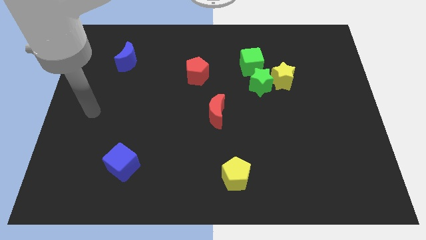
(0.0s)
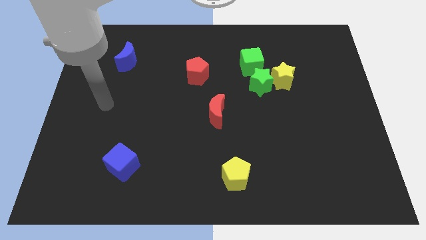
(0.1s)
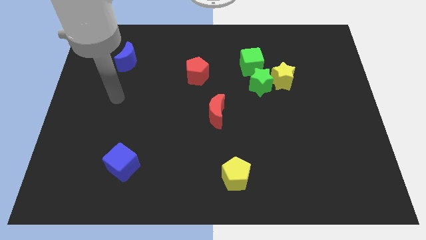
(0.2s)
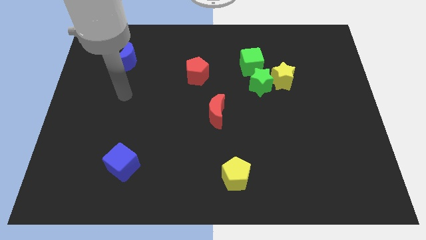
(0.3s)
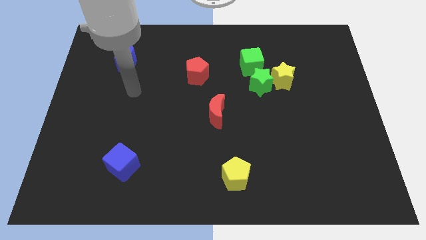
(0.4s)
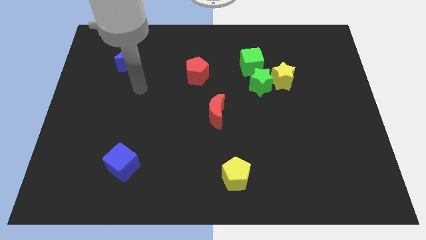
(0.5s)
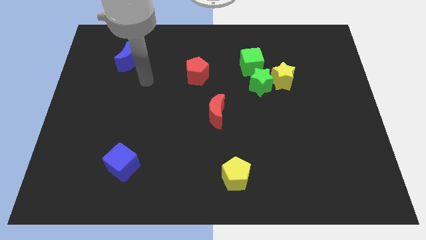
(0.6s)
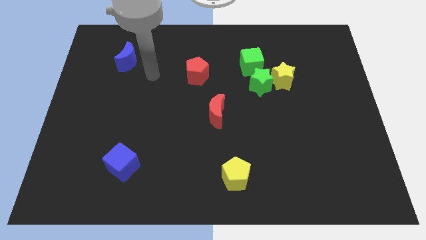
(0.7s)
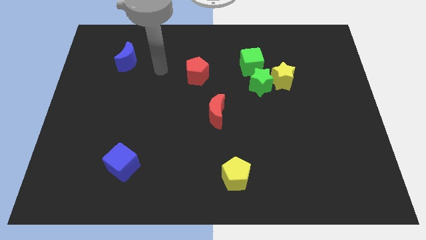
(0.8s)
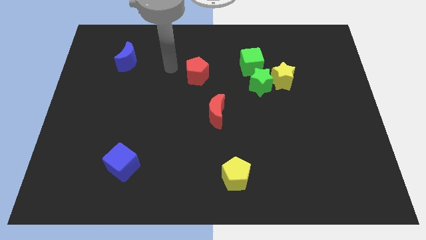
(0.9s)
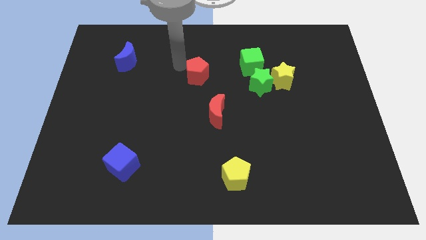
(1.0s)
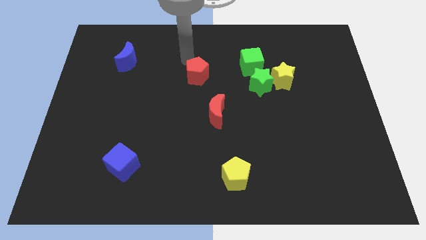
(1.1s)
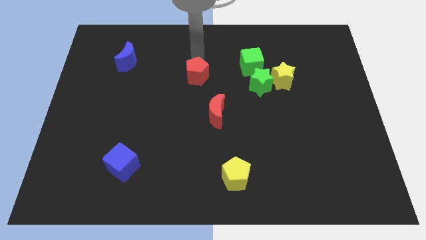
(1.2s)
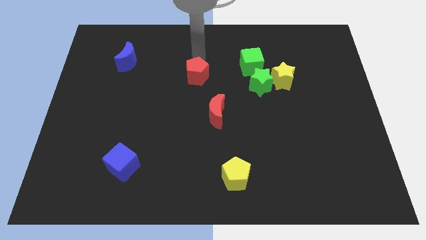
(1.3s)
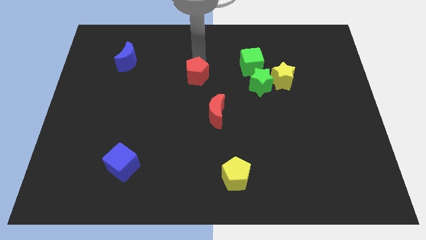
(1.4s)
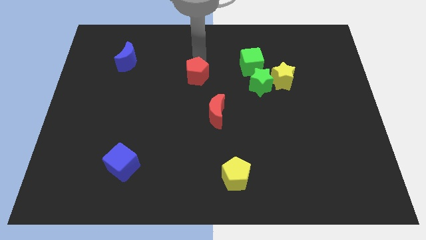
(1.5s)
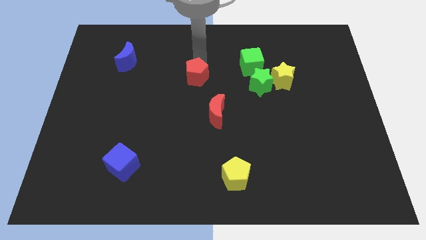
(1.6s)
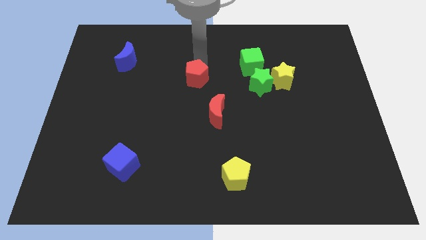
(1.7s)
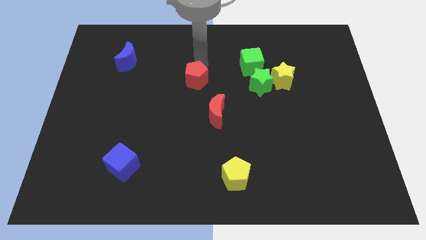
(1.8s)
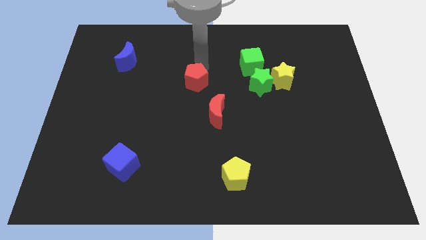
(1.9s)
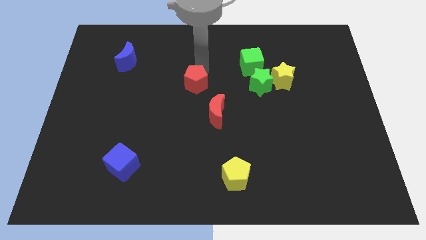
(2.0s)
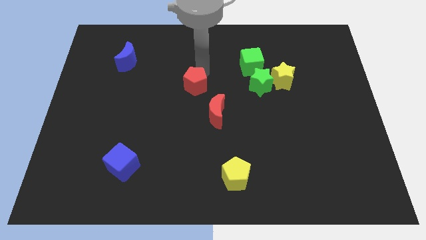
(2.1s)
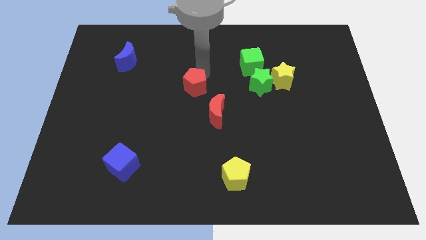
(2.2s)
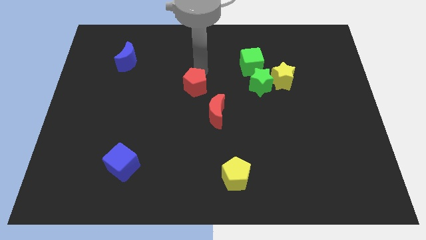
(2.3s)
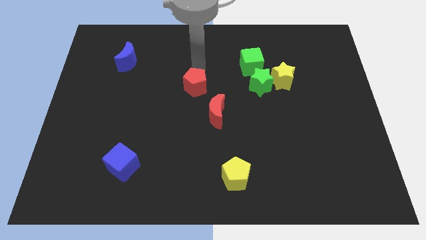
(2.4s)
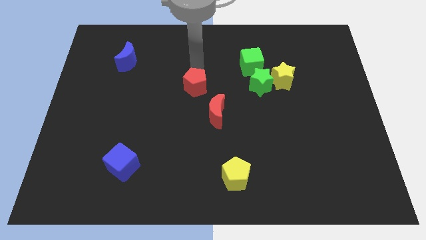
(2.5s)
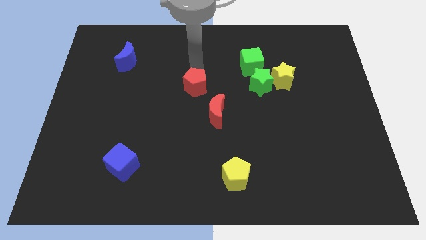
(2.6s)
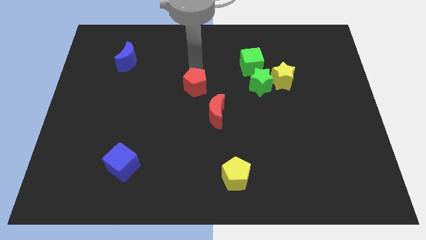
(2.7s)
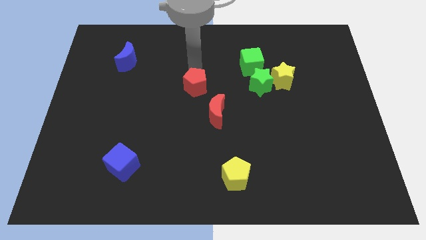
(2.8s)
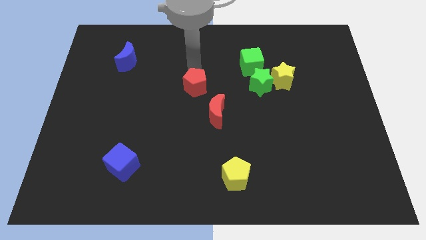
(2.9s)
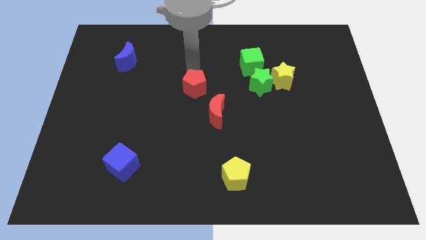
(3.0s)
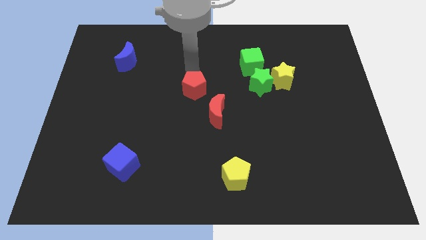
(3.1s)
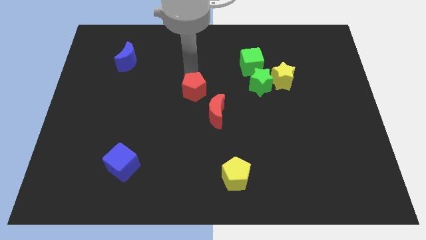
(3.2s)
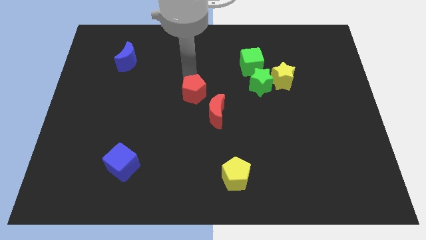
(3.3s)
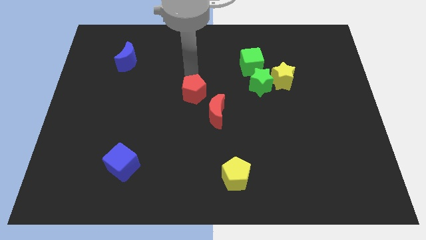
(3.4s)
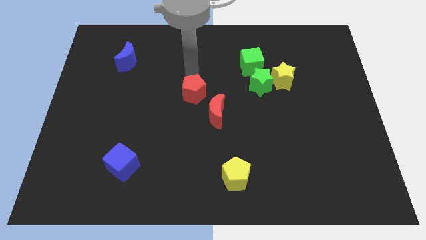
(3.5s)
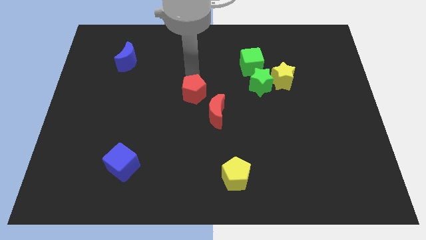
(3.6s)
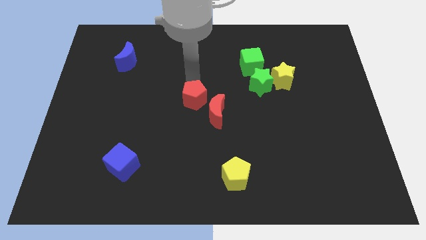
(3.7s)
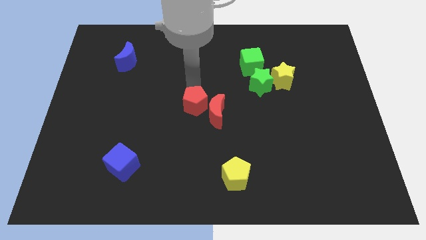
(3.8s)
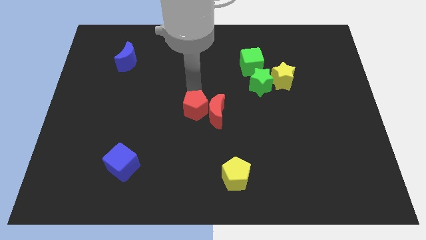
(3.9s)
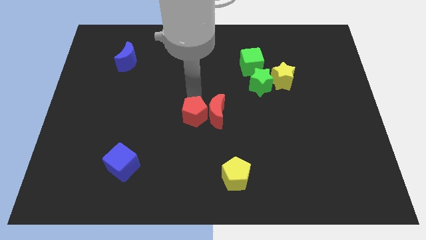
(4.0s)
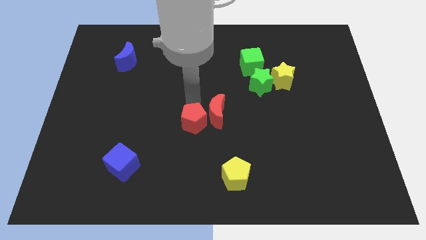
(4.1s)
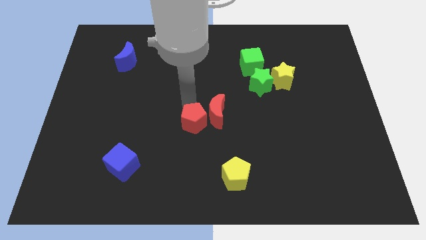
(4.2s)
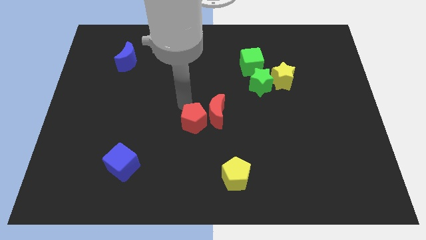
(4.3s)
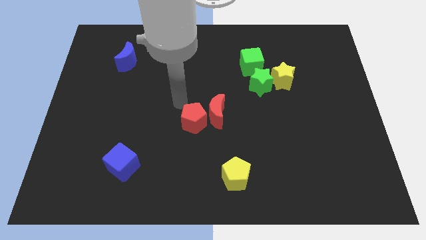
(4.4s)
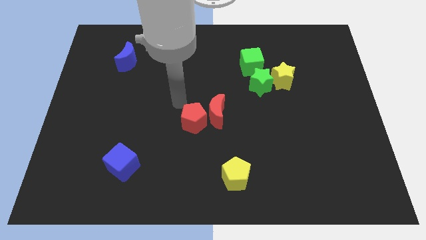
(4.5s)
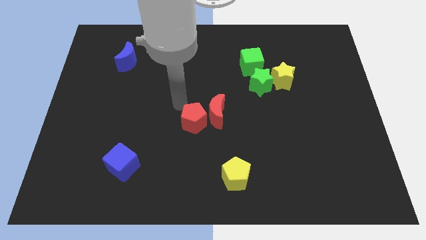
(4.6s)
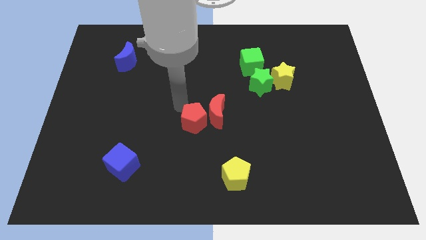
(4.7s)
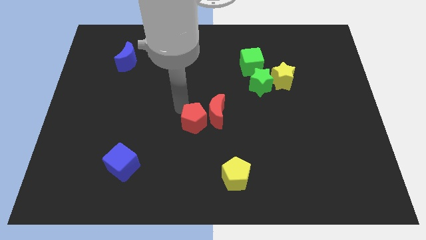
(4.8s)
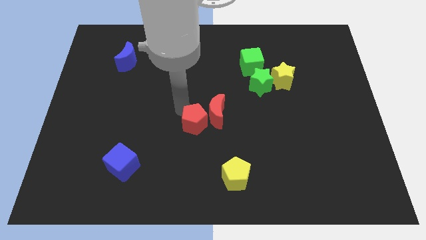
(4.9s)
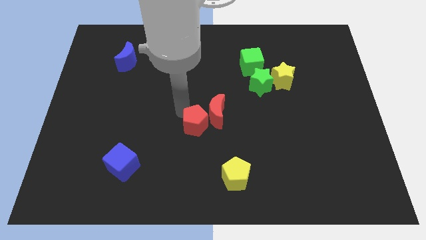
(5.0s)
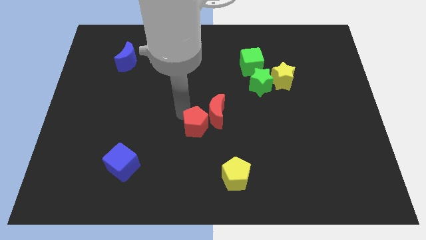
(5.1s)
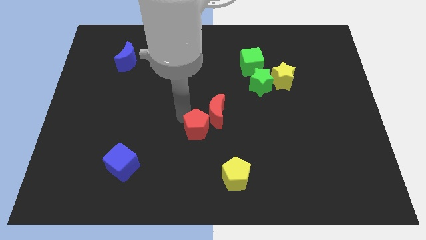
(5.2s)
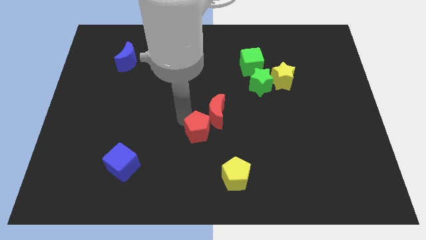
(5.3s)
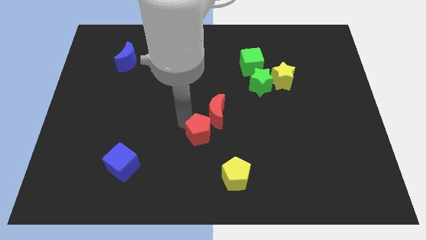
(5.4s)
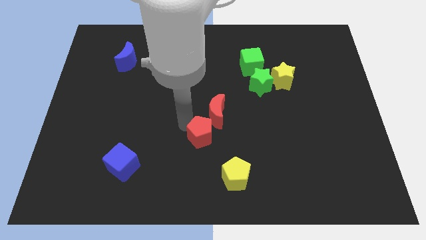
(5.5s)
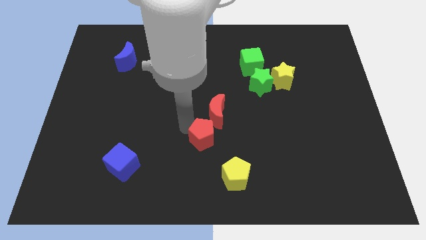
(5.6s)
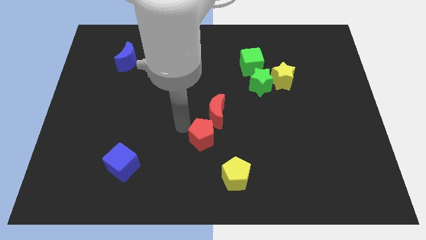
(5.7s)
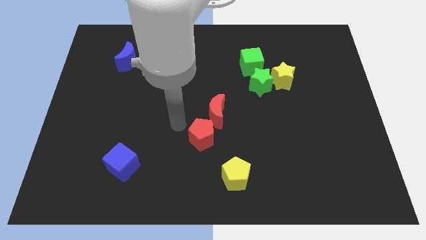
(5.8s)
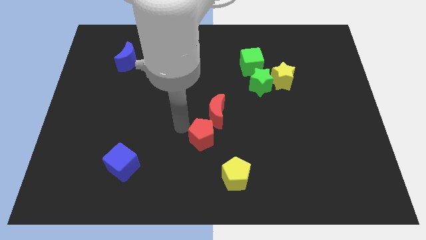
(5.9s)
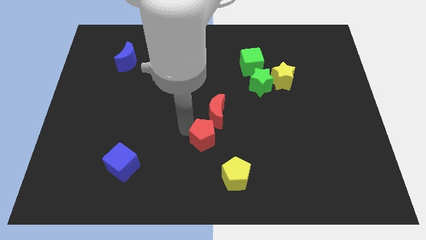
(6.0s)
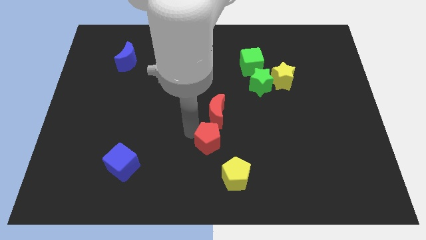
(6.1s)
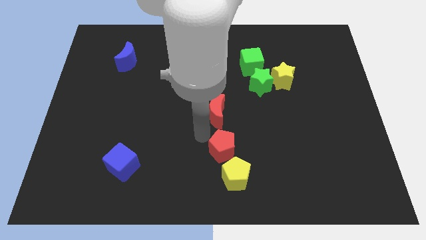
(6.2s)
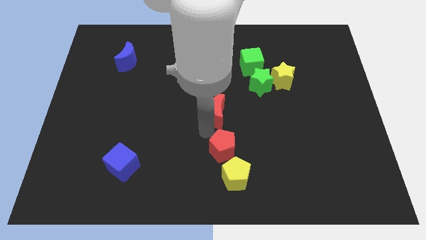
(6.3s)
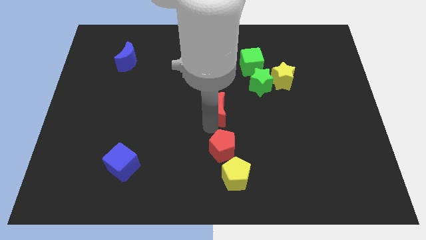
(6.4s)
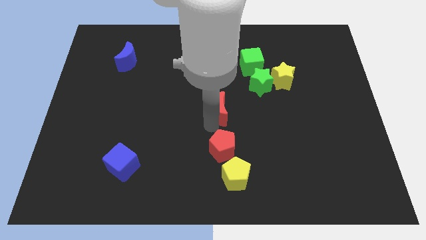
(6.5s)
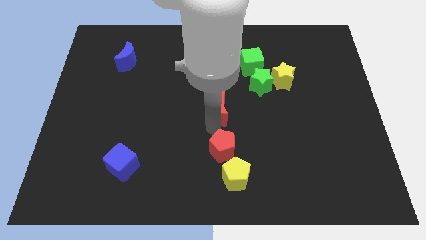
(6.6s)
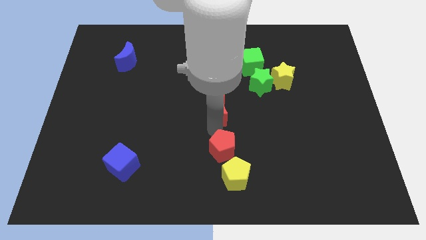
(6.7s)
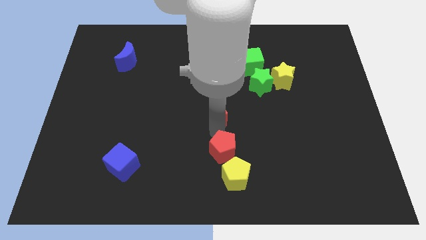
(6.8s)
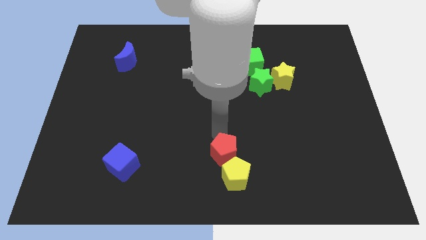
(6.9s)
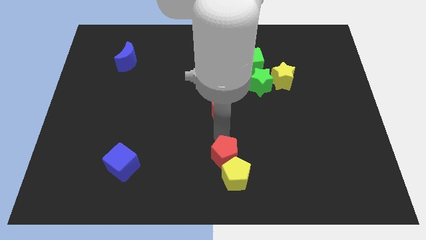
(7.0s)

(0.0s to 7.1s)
move the red pentagon close to the yellow pentagon

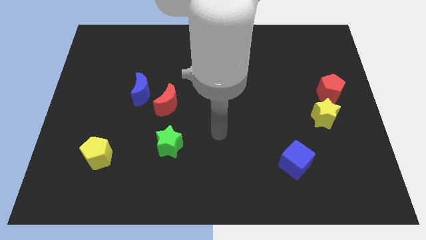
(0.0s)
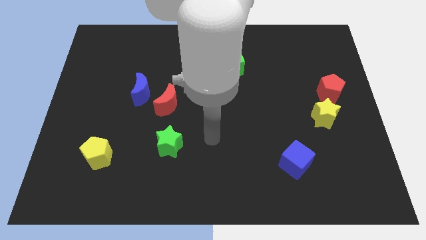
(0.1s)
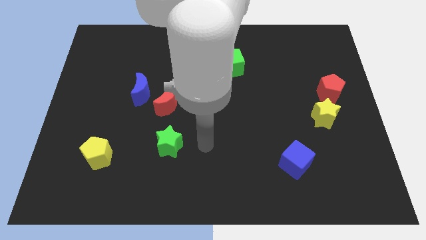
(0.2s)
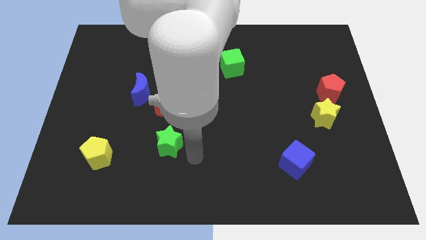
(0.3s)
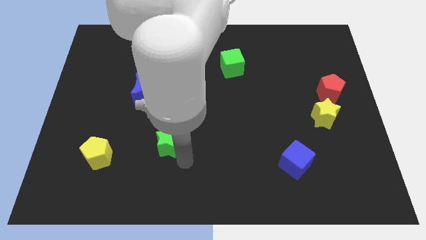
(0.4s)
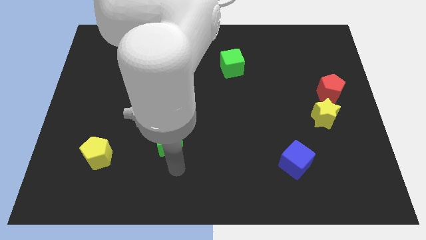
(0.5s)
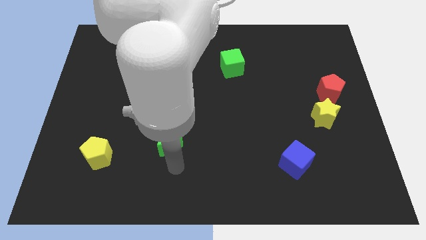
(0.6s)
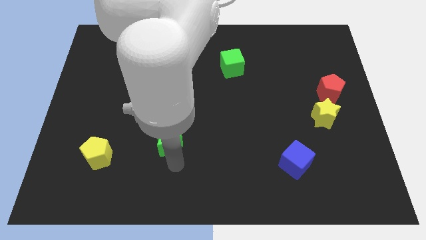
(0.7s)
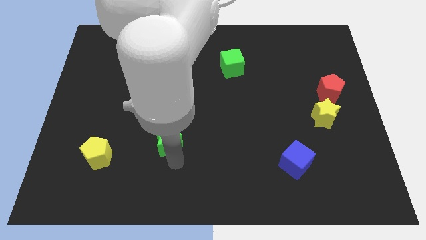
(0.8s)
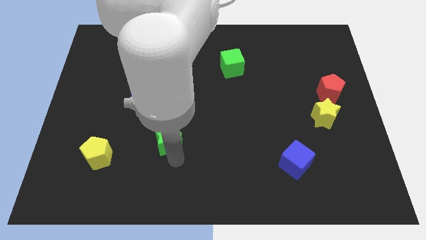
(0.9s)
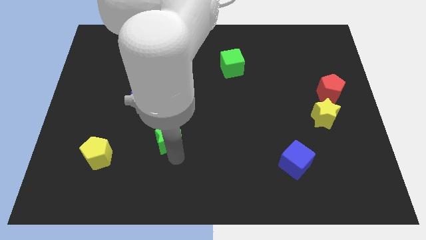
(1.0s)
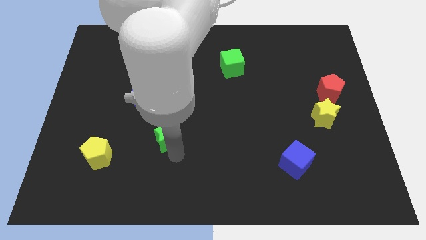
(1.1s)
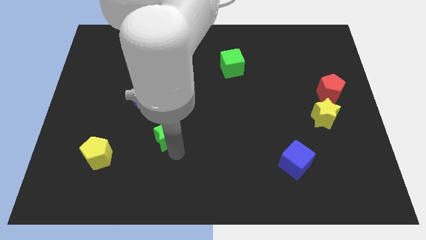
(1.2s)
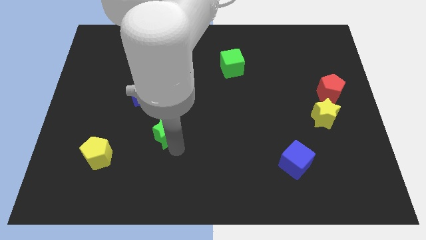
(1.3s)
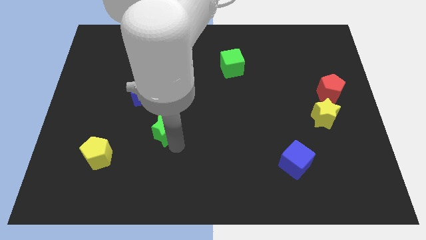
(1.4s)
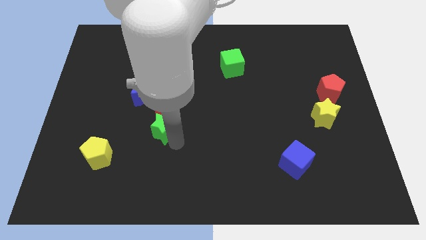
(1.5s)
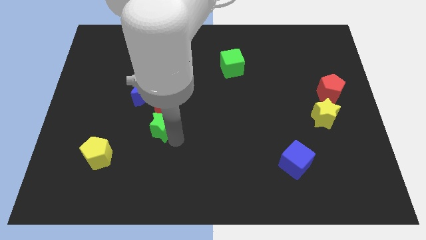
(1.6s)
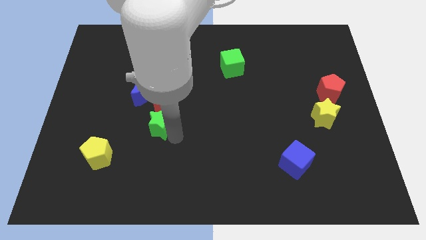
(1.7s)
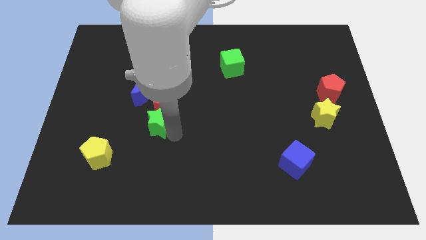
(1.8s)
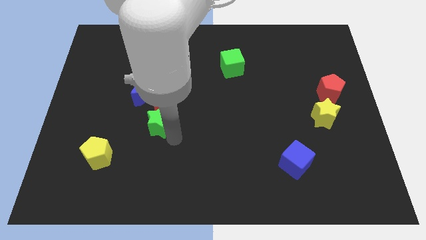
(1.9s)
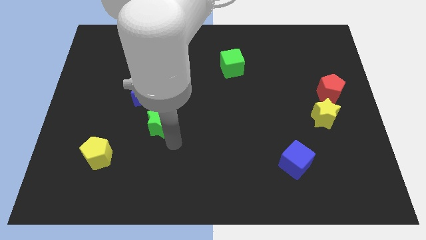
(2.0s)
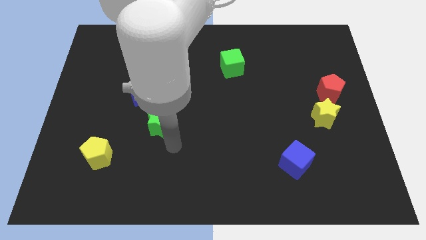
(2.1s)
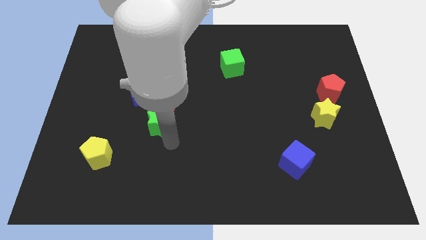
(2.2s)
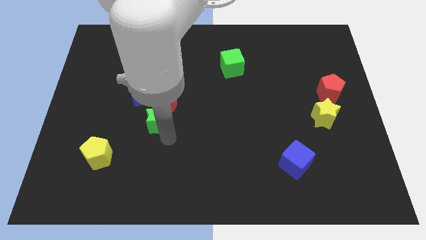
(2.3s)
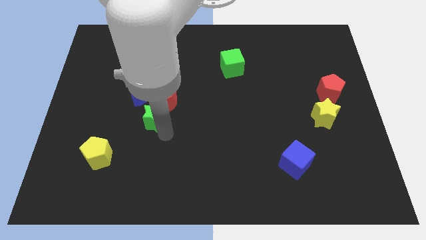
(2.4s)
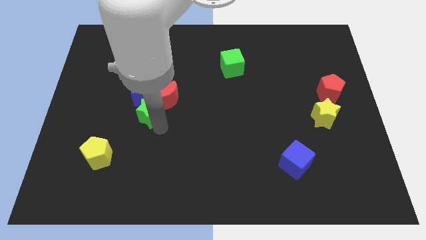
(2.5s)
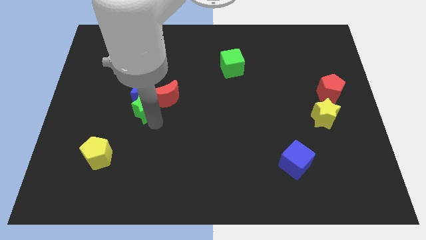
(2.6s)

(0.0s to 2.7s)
move the green star towards the blue moon
